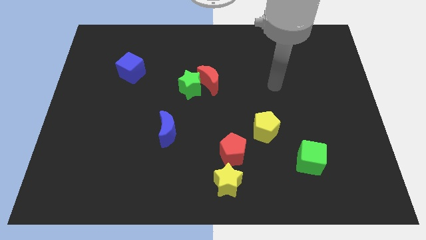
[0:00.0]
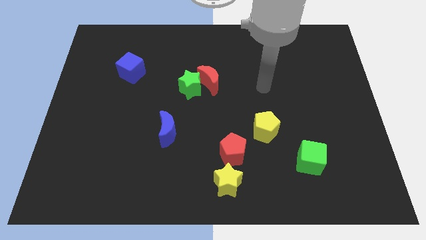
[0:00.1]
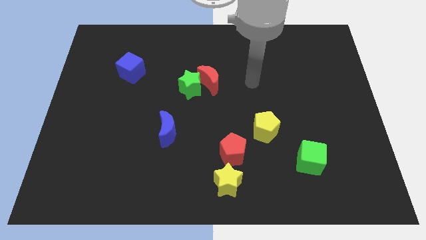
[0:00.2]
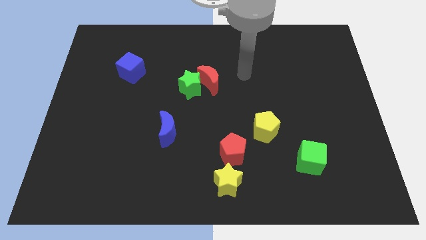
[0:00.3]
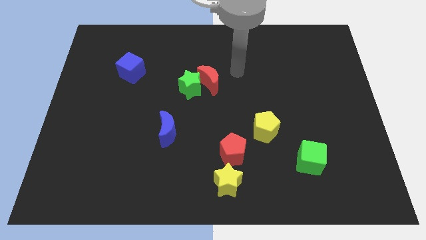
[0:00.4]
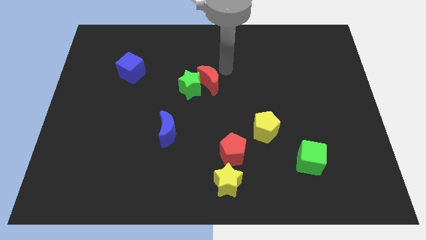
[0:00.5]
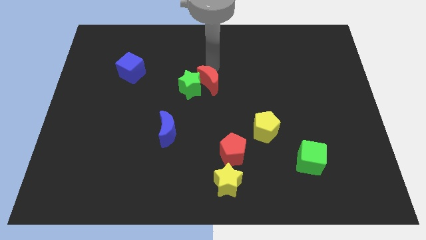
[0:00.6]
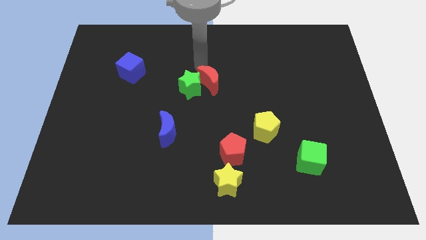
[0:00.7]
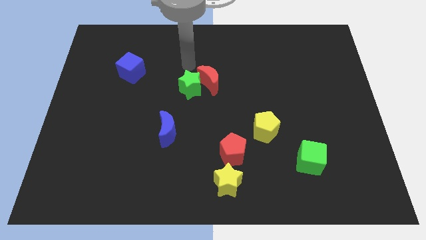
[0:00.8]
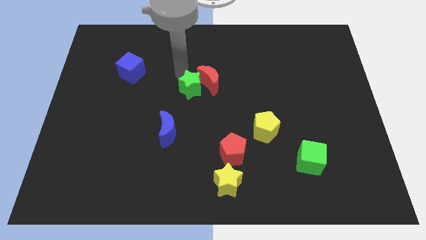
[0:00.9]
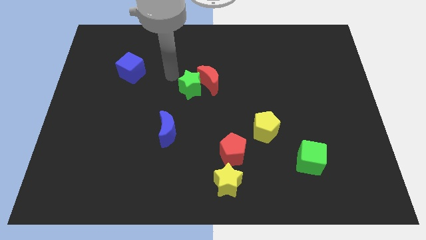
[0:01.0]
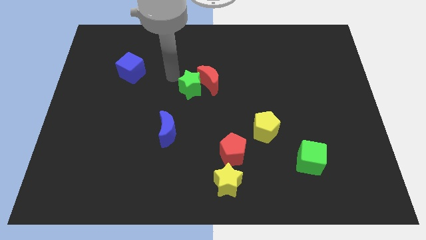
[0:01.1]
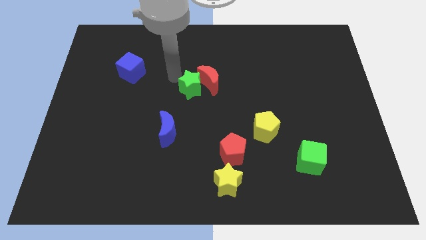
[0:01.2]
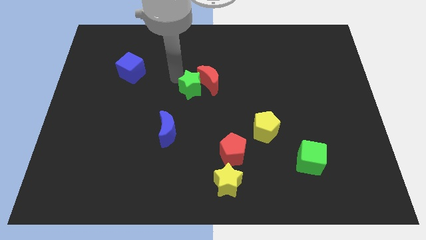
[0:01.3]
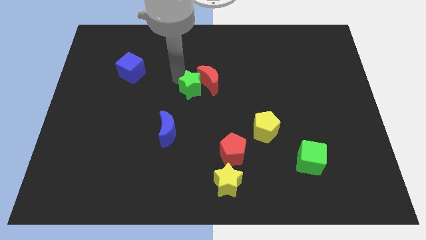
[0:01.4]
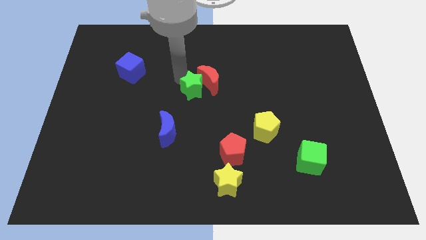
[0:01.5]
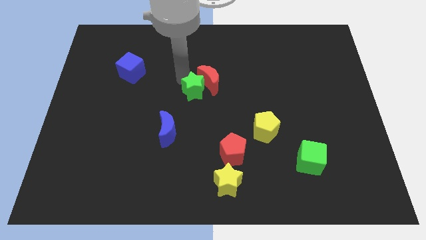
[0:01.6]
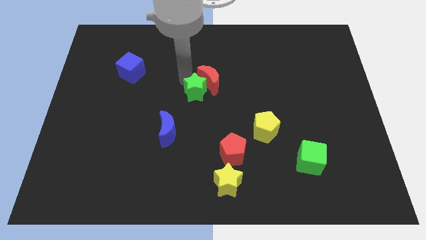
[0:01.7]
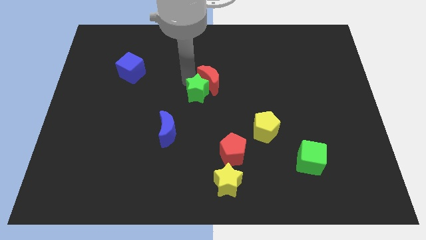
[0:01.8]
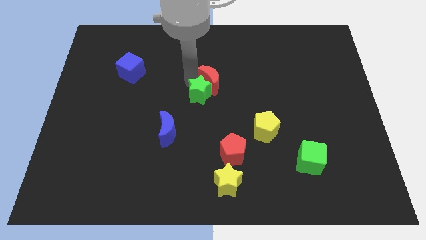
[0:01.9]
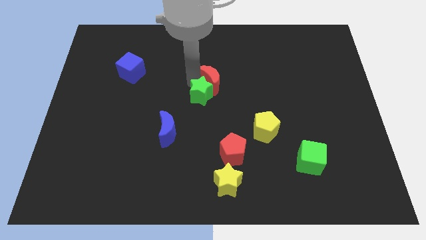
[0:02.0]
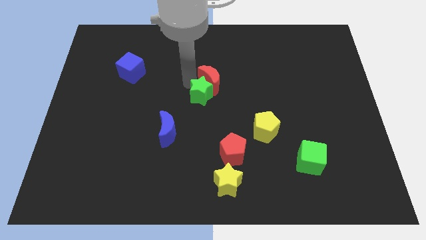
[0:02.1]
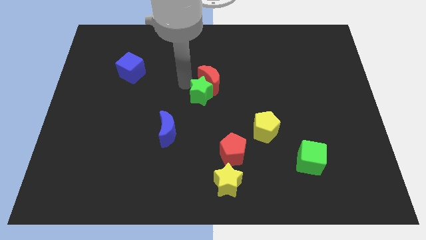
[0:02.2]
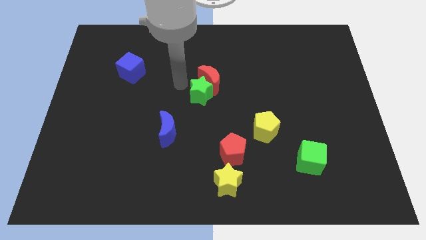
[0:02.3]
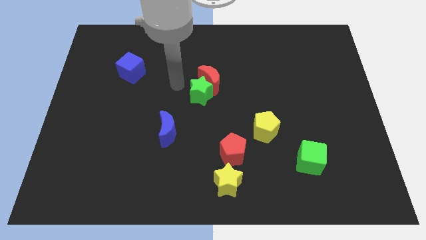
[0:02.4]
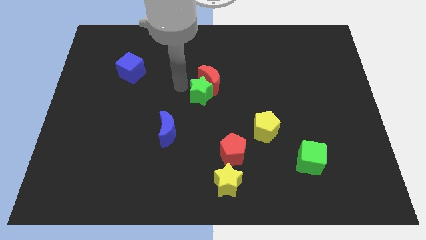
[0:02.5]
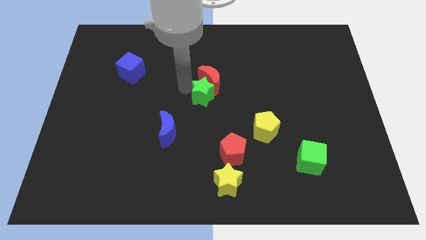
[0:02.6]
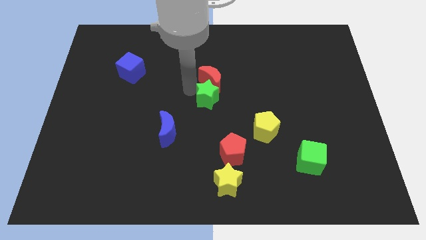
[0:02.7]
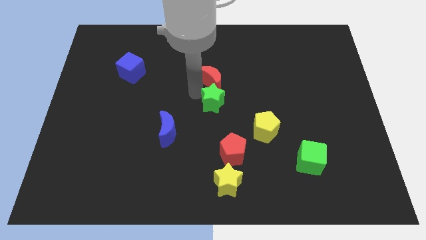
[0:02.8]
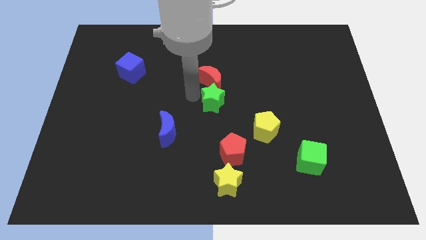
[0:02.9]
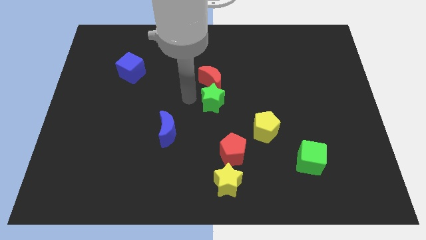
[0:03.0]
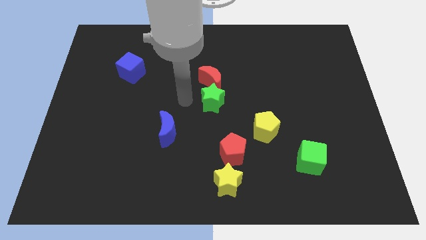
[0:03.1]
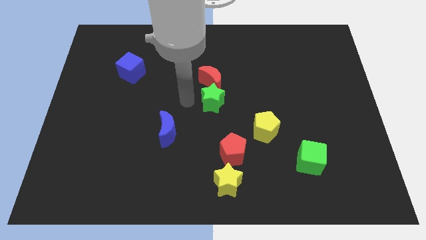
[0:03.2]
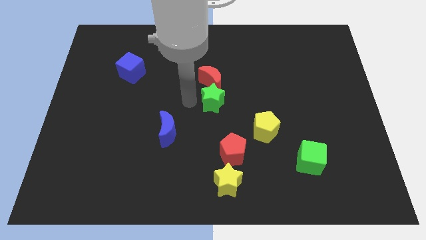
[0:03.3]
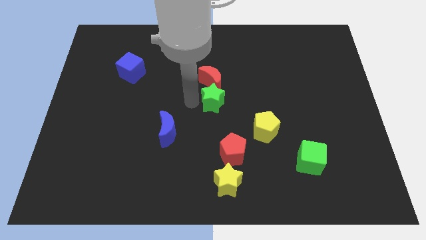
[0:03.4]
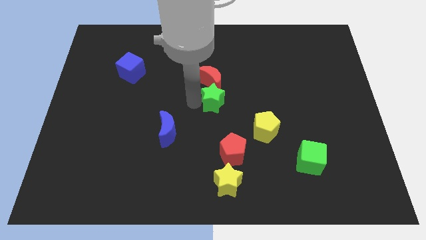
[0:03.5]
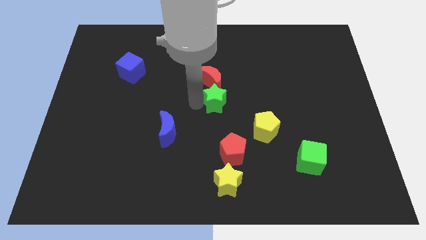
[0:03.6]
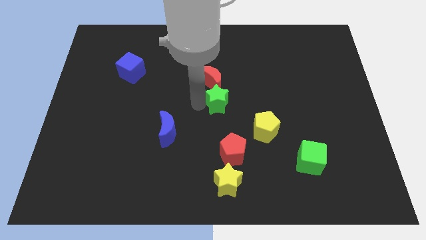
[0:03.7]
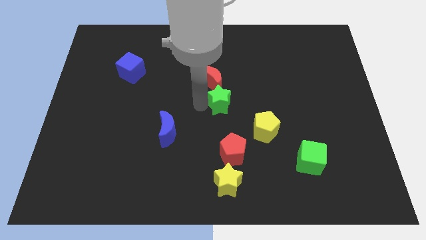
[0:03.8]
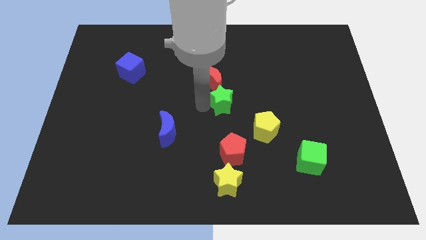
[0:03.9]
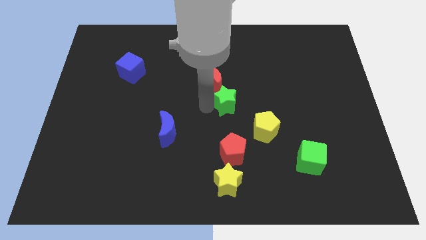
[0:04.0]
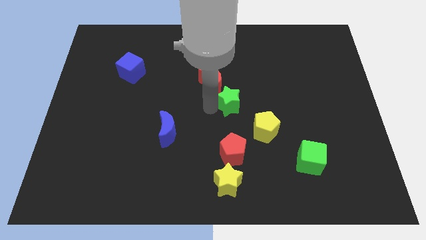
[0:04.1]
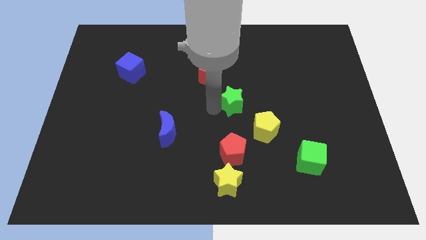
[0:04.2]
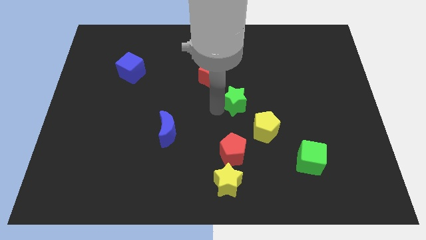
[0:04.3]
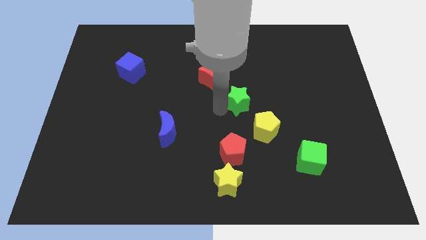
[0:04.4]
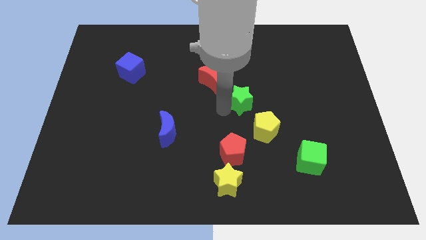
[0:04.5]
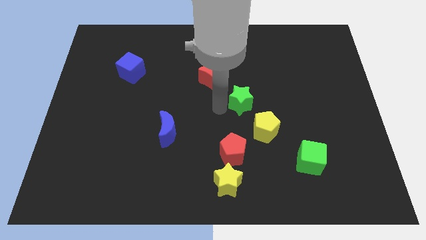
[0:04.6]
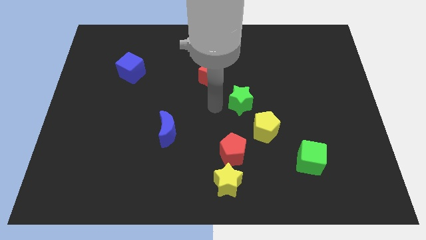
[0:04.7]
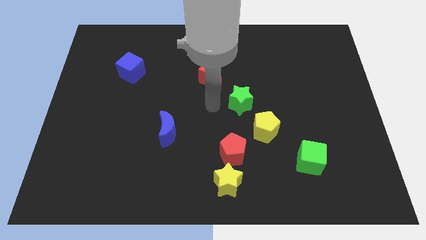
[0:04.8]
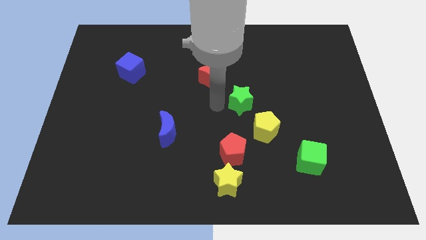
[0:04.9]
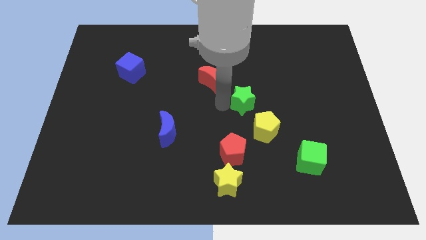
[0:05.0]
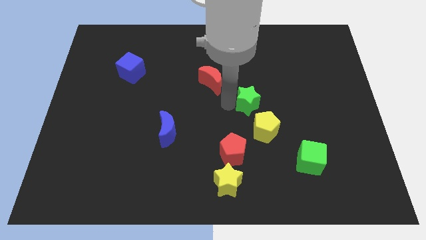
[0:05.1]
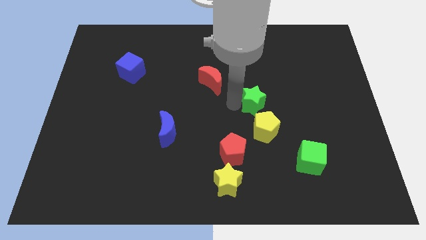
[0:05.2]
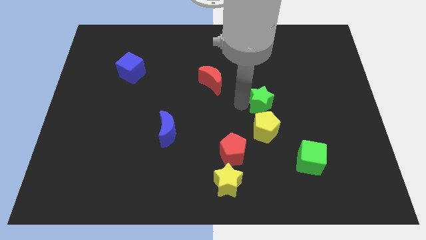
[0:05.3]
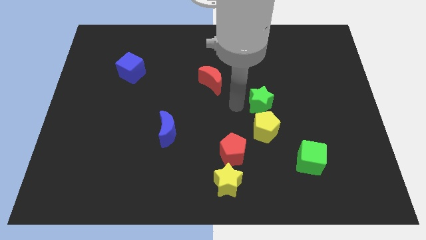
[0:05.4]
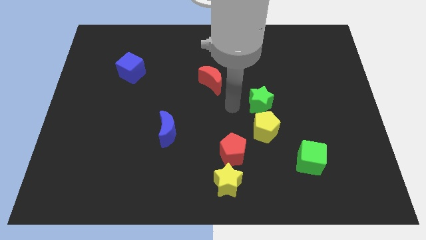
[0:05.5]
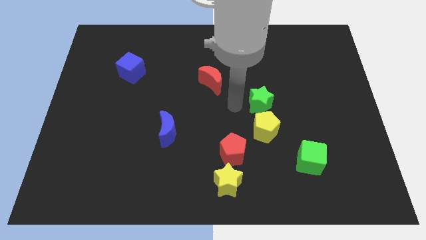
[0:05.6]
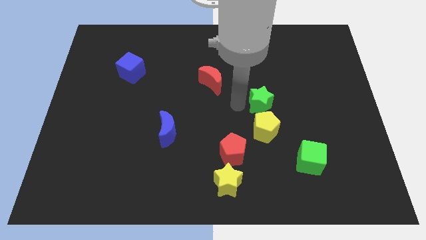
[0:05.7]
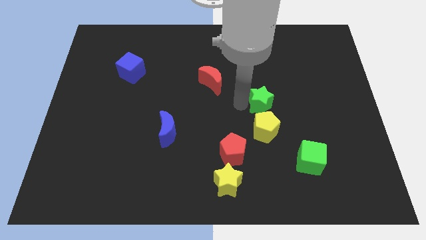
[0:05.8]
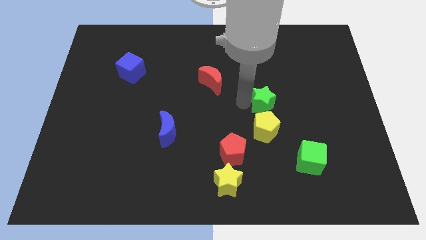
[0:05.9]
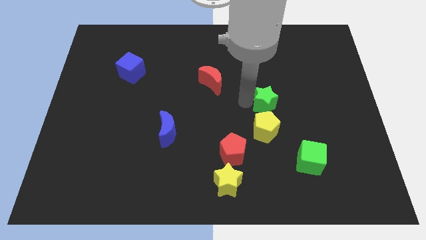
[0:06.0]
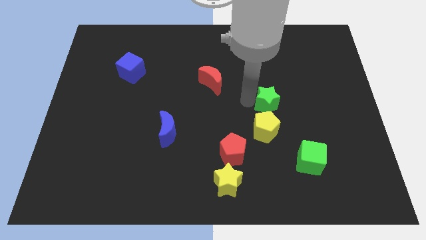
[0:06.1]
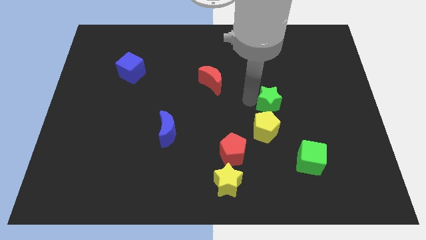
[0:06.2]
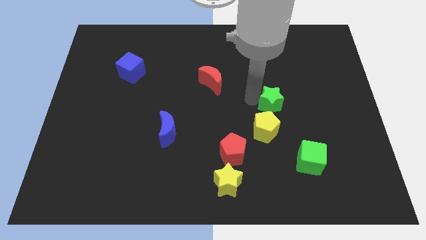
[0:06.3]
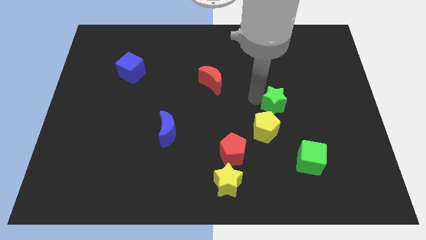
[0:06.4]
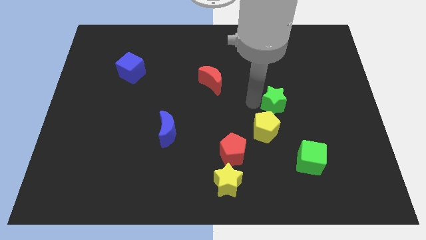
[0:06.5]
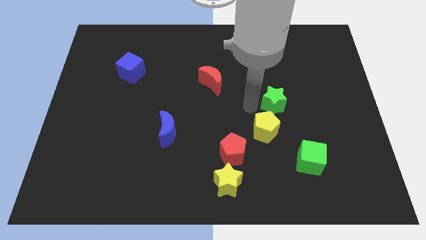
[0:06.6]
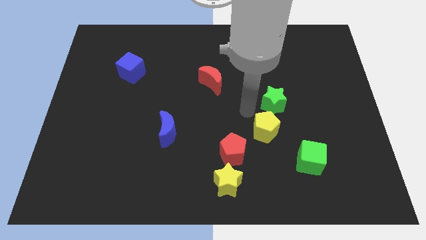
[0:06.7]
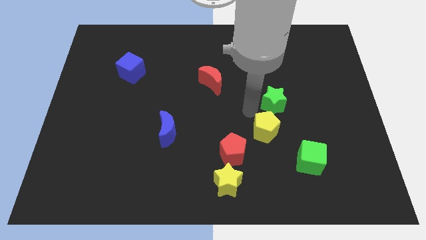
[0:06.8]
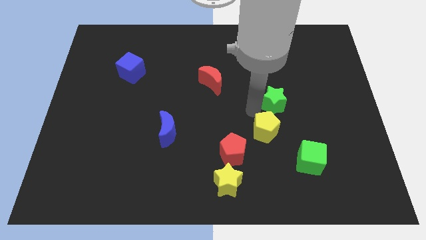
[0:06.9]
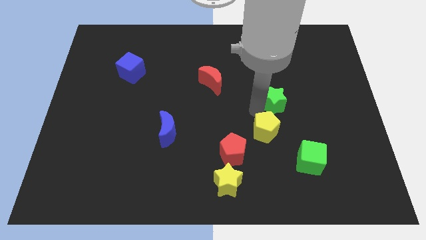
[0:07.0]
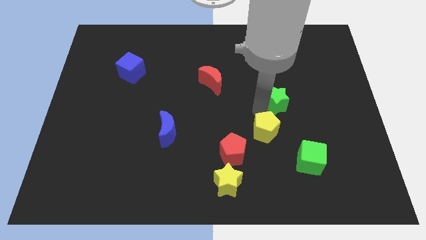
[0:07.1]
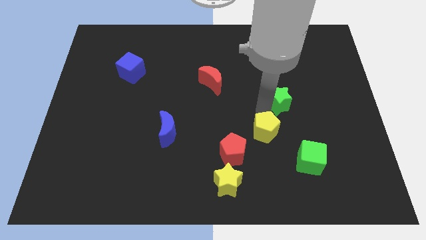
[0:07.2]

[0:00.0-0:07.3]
slide the green star right

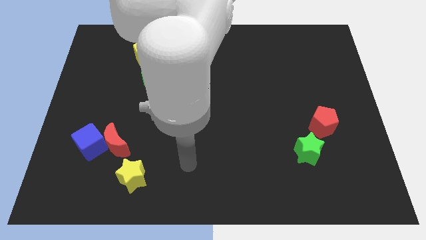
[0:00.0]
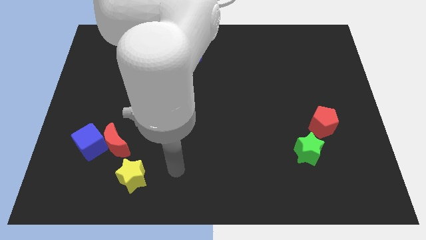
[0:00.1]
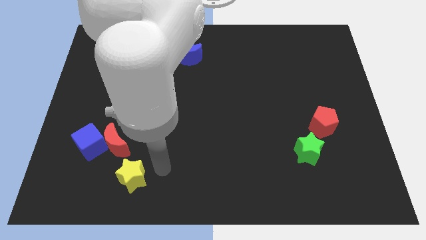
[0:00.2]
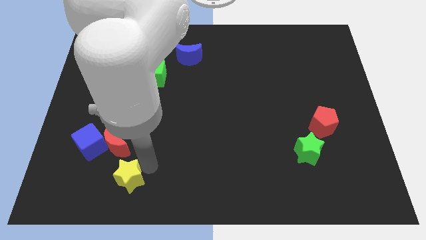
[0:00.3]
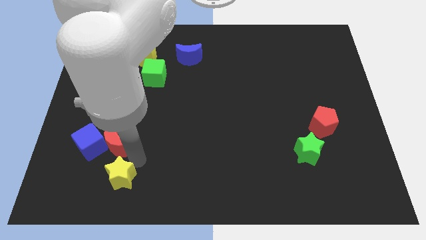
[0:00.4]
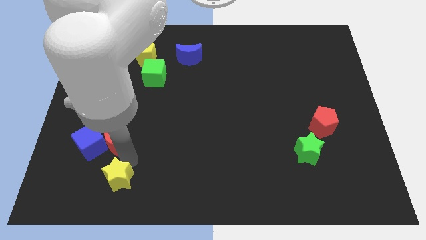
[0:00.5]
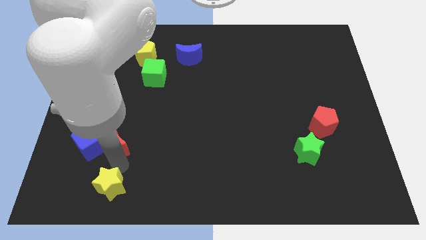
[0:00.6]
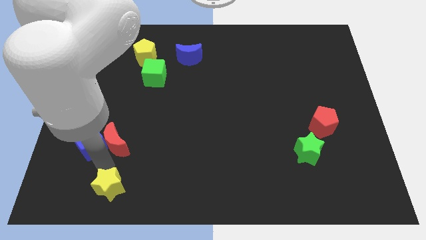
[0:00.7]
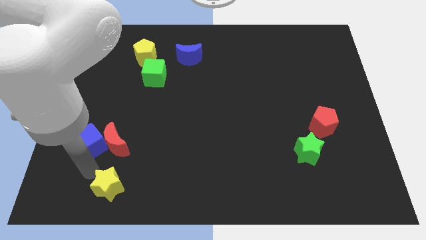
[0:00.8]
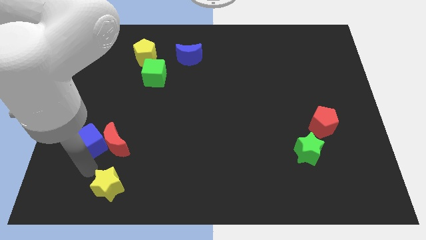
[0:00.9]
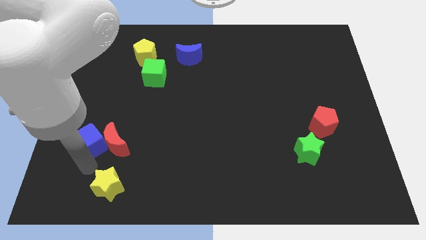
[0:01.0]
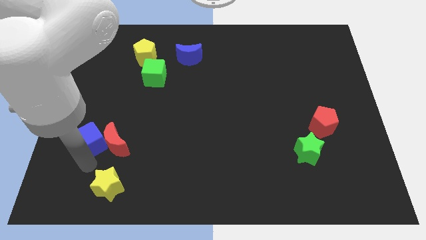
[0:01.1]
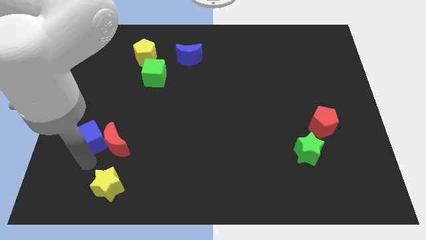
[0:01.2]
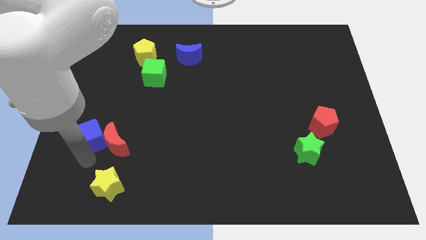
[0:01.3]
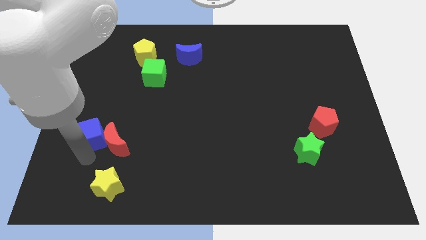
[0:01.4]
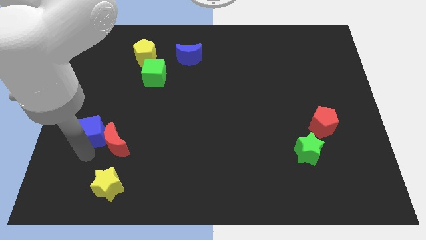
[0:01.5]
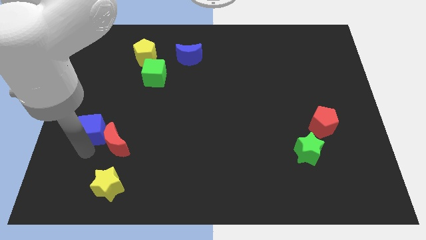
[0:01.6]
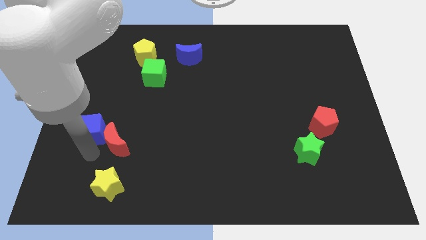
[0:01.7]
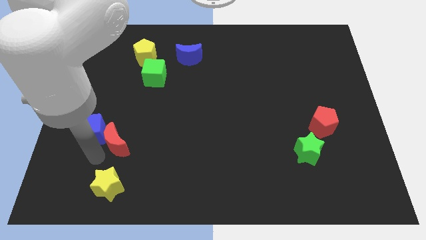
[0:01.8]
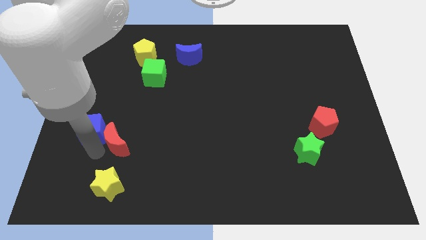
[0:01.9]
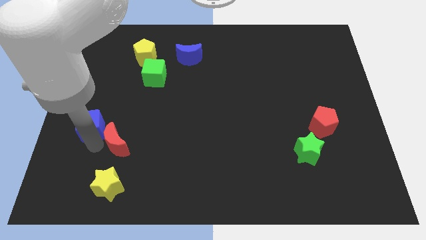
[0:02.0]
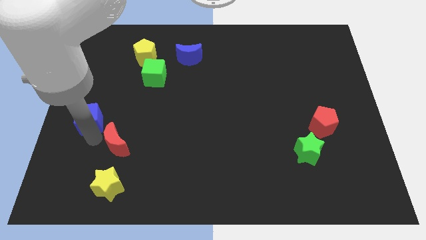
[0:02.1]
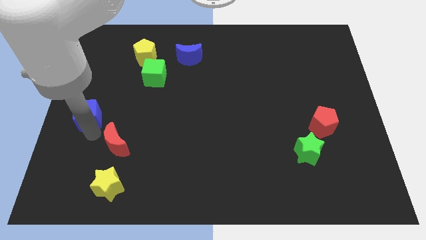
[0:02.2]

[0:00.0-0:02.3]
move the blue cube a little up
